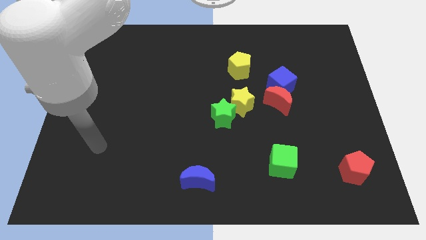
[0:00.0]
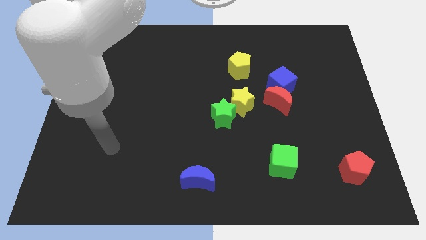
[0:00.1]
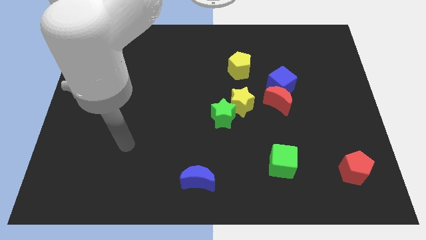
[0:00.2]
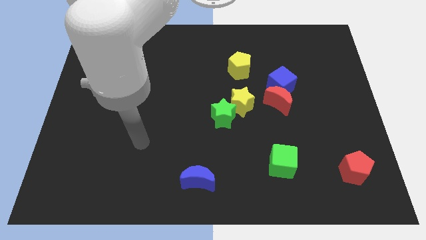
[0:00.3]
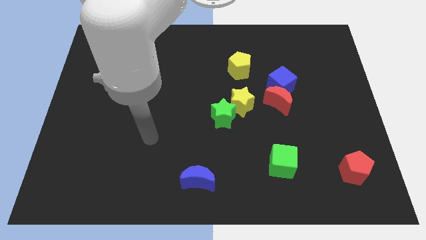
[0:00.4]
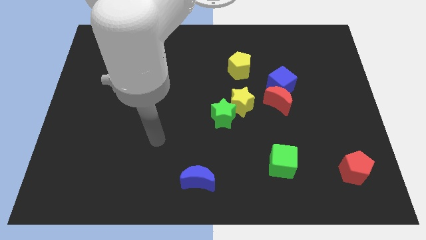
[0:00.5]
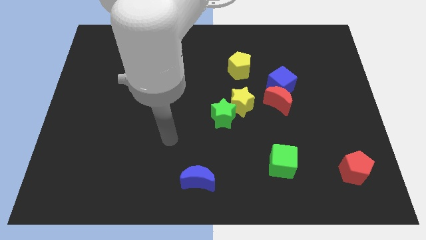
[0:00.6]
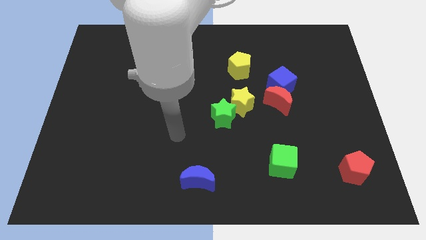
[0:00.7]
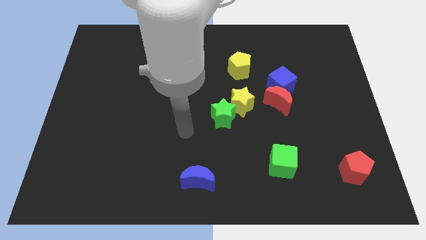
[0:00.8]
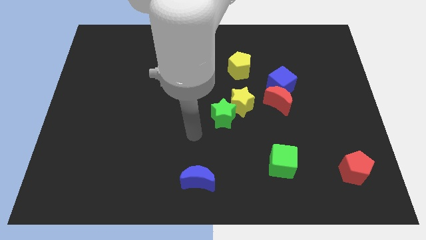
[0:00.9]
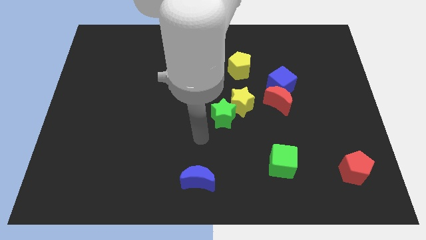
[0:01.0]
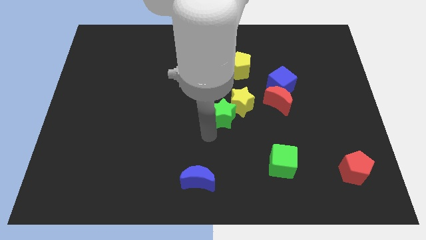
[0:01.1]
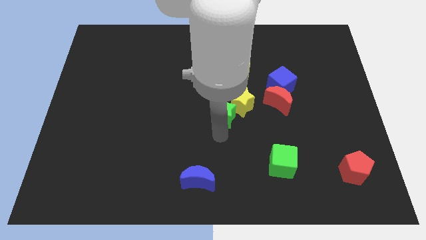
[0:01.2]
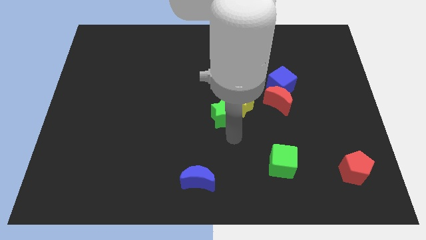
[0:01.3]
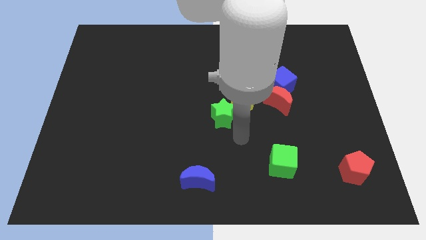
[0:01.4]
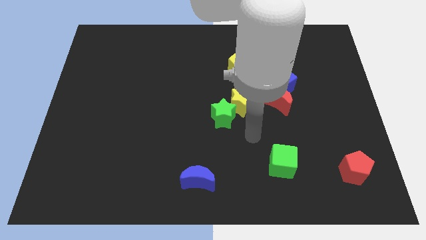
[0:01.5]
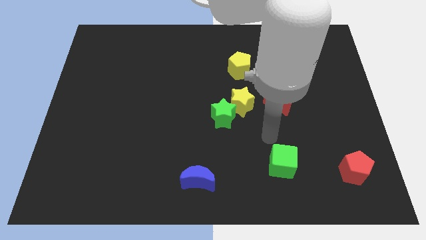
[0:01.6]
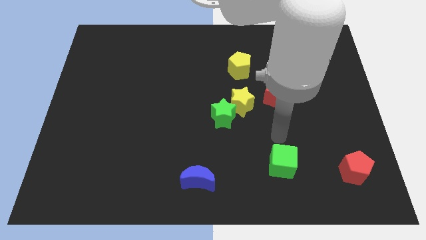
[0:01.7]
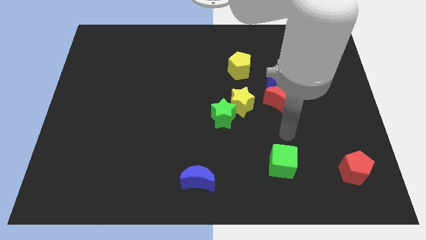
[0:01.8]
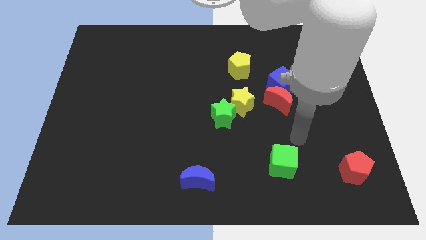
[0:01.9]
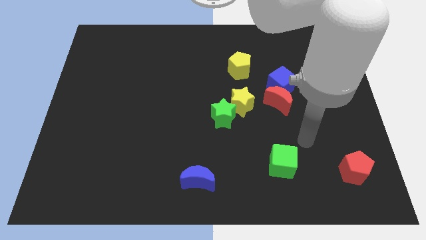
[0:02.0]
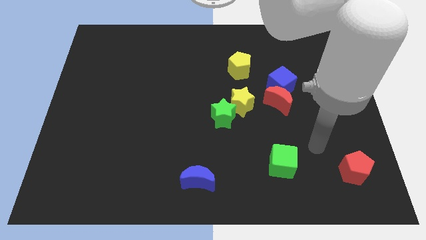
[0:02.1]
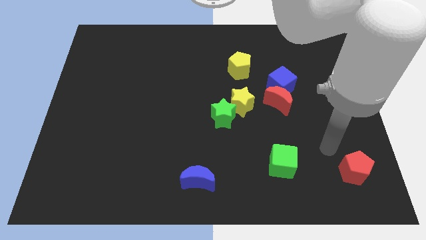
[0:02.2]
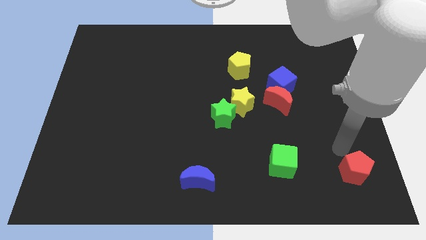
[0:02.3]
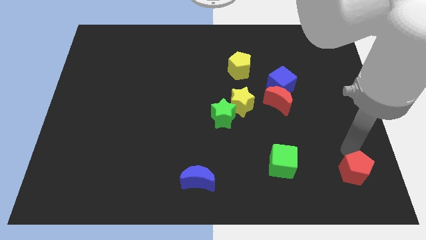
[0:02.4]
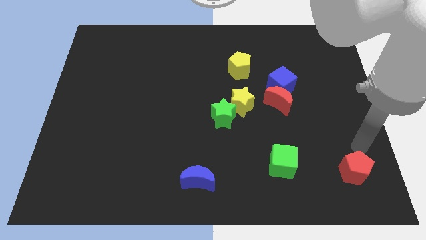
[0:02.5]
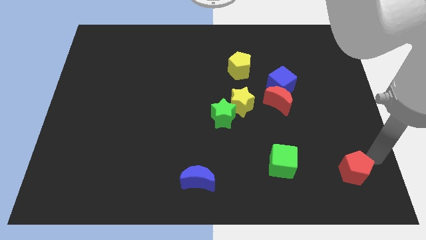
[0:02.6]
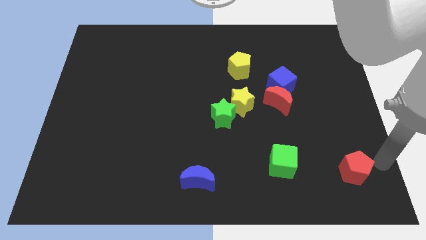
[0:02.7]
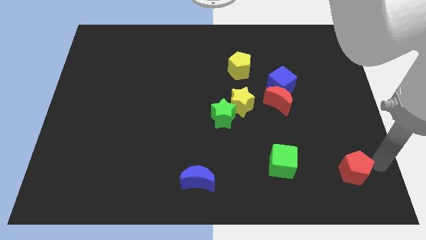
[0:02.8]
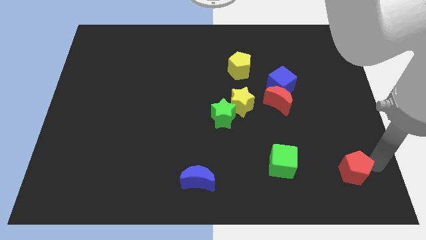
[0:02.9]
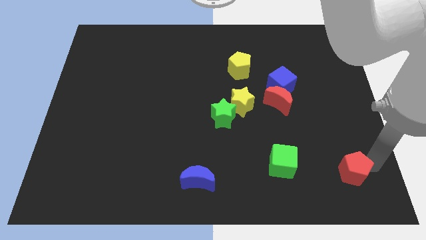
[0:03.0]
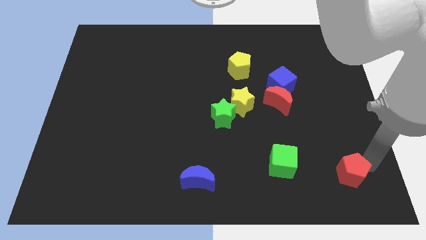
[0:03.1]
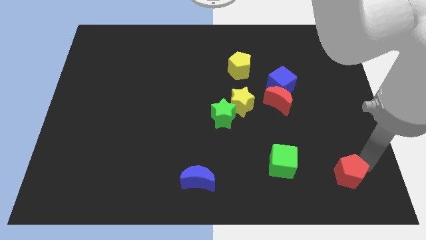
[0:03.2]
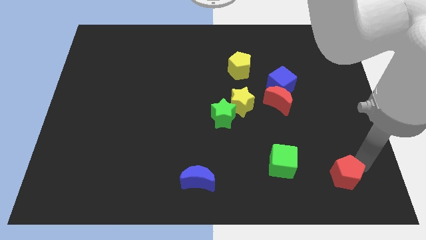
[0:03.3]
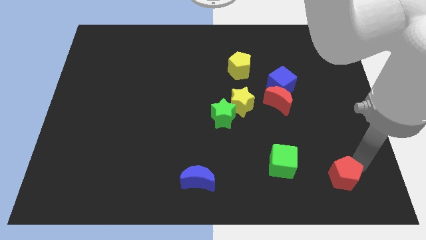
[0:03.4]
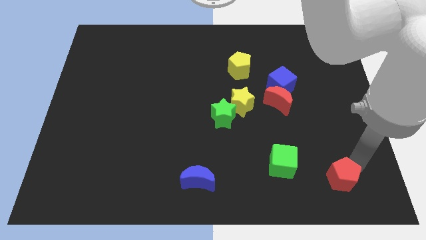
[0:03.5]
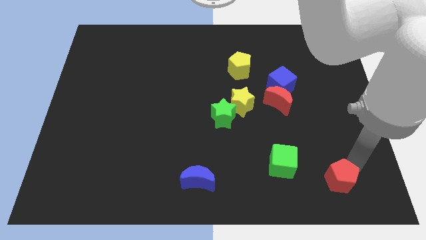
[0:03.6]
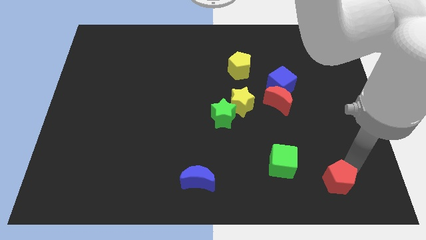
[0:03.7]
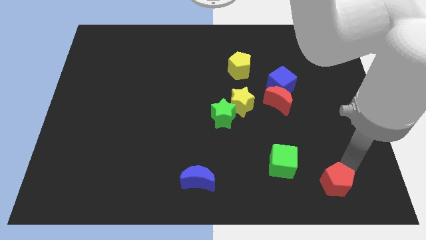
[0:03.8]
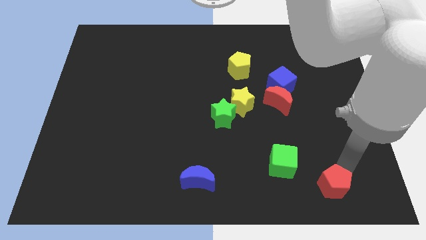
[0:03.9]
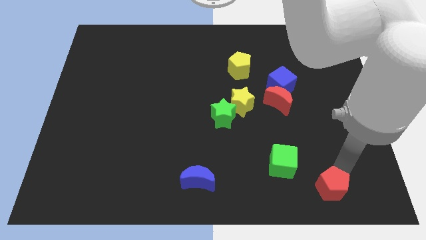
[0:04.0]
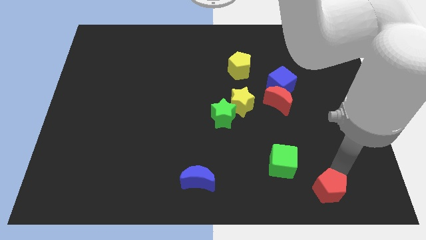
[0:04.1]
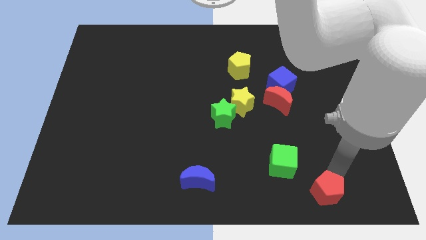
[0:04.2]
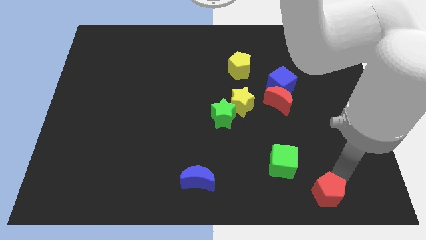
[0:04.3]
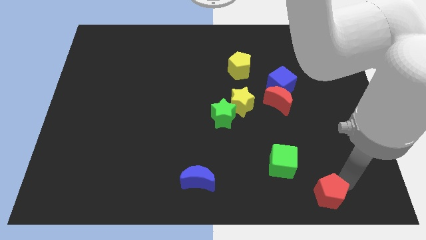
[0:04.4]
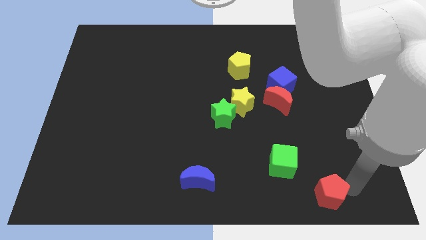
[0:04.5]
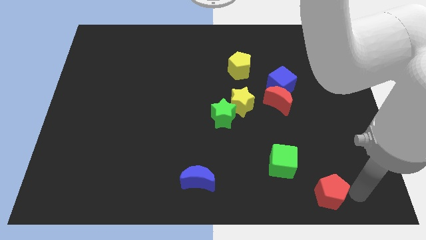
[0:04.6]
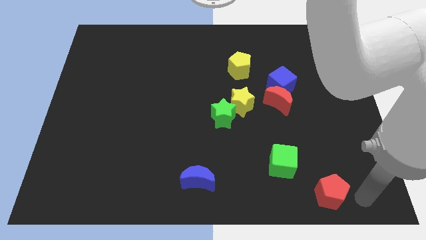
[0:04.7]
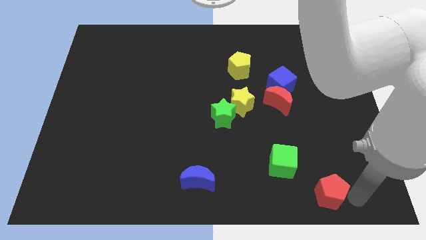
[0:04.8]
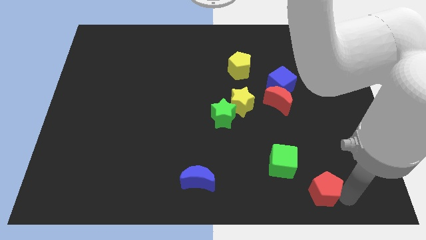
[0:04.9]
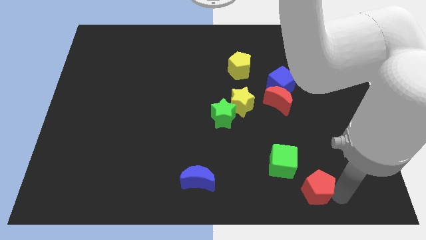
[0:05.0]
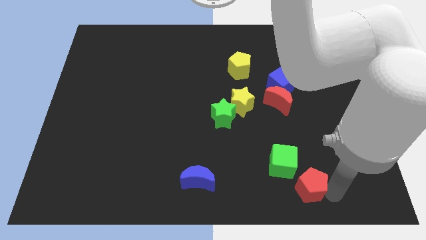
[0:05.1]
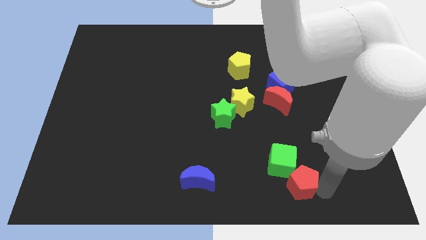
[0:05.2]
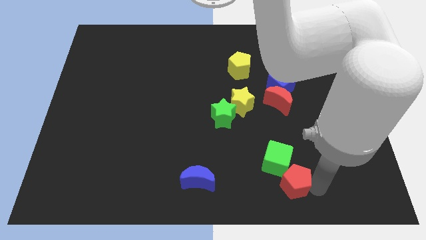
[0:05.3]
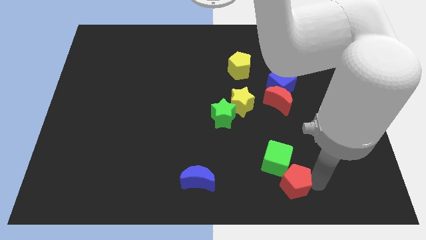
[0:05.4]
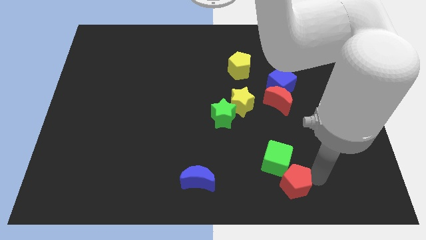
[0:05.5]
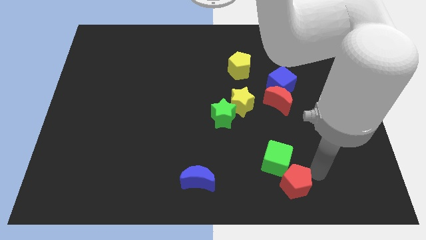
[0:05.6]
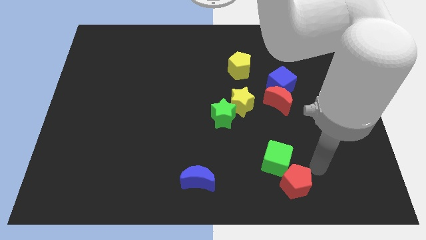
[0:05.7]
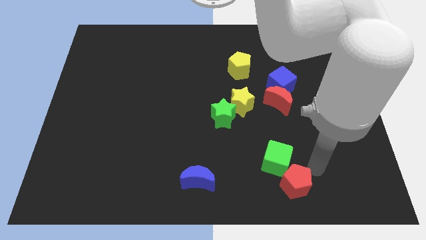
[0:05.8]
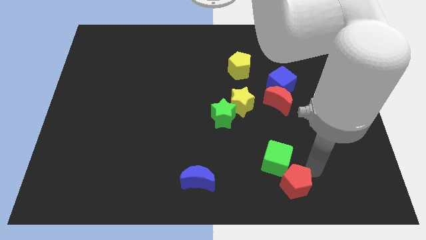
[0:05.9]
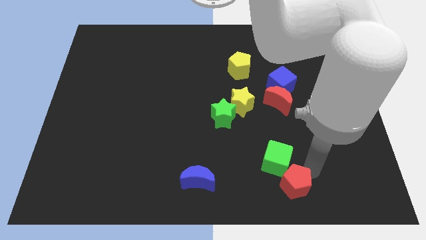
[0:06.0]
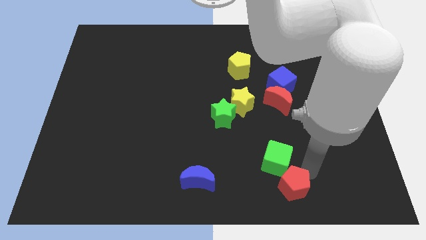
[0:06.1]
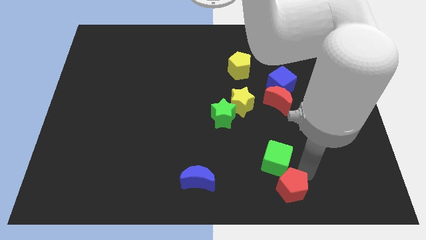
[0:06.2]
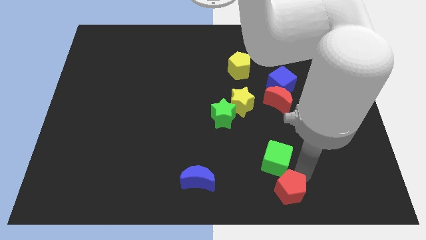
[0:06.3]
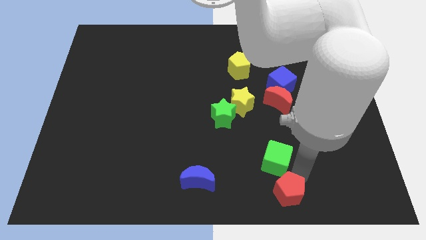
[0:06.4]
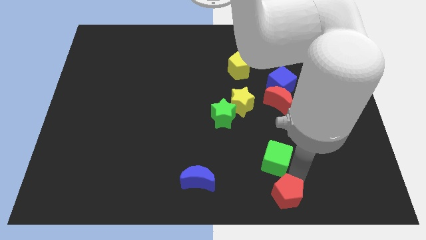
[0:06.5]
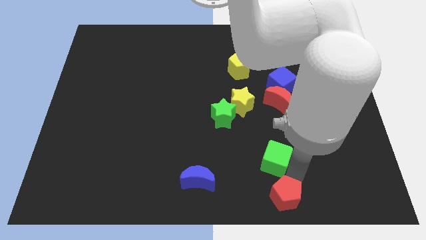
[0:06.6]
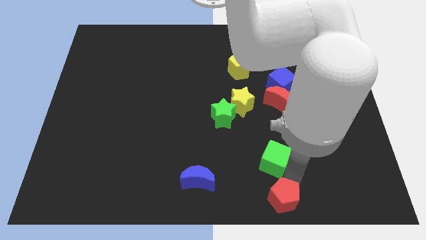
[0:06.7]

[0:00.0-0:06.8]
put the red pentagon to the bottom side

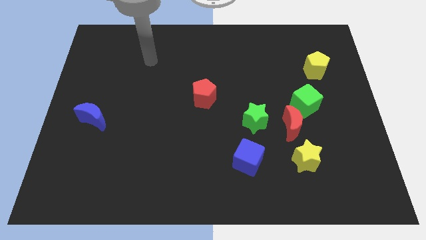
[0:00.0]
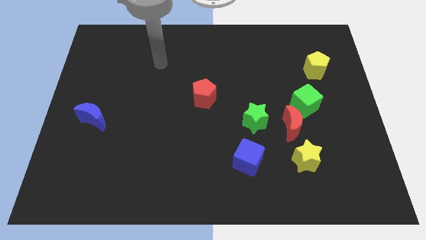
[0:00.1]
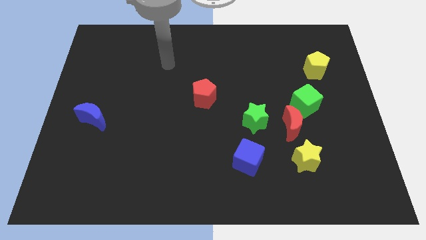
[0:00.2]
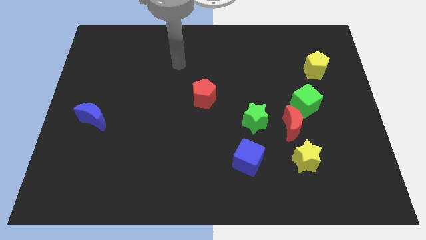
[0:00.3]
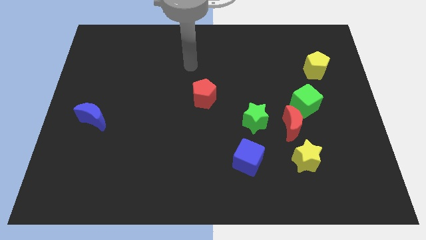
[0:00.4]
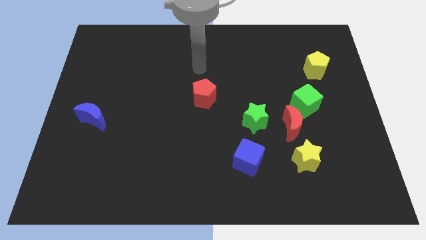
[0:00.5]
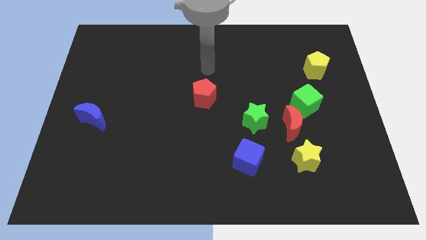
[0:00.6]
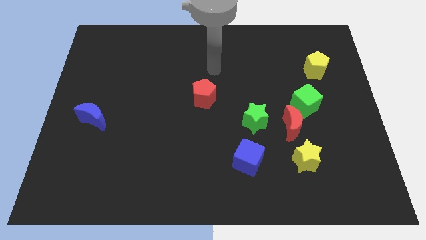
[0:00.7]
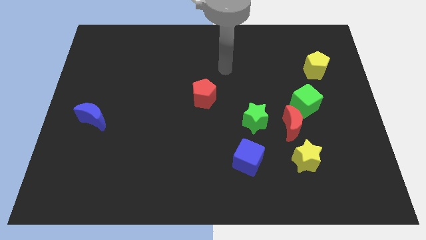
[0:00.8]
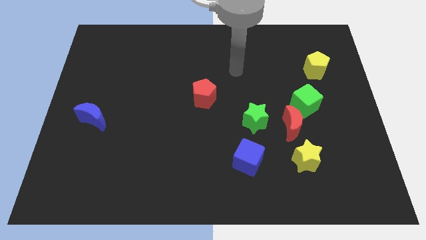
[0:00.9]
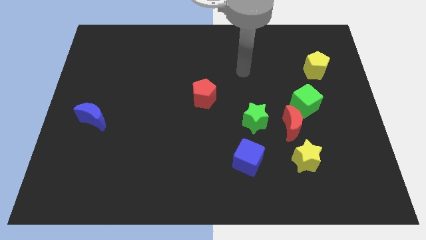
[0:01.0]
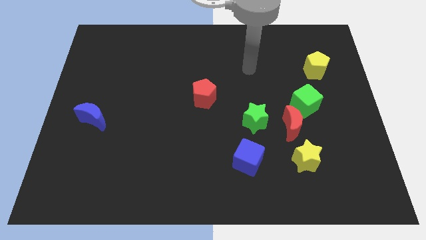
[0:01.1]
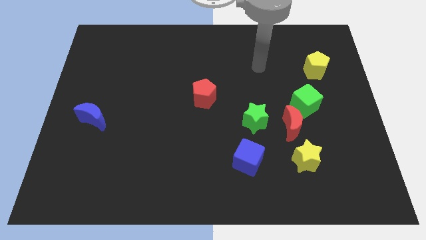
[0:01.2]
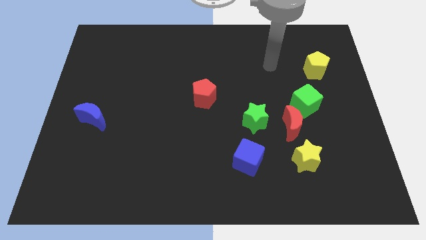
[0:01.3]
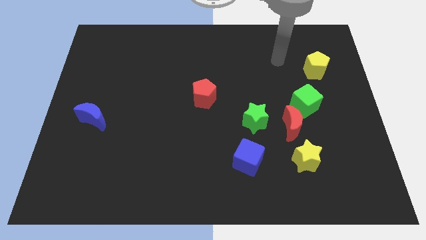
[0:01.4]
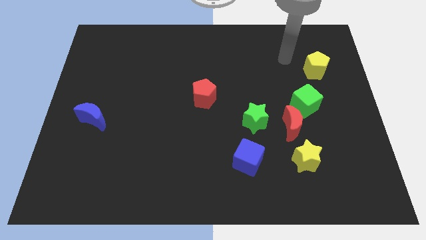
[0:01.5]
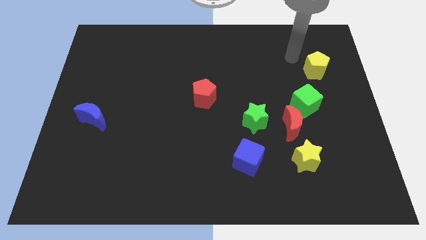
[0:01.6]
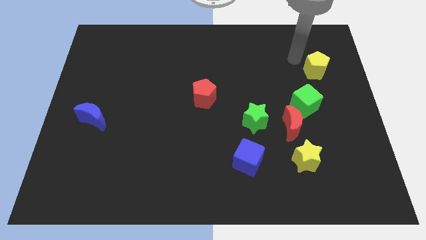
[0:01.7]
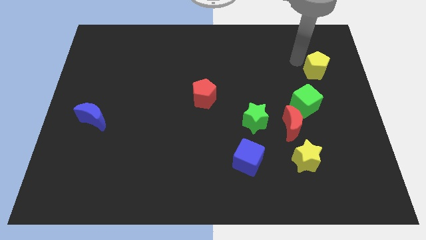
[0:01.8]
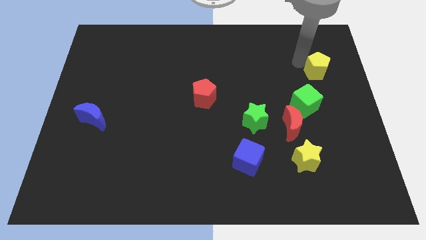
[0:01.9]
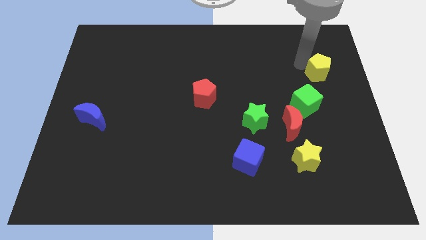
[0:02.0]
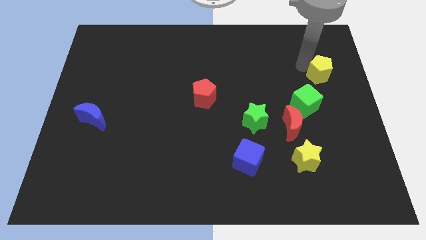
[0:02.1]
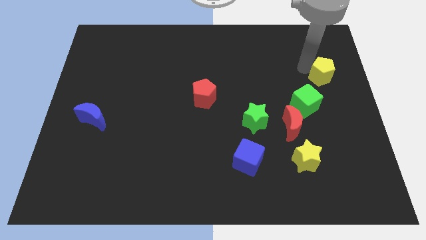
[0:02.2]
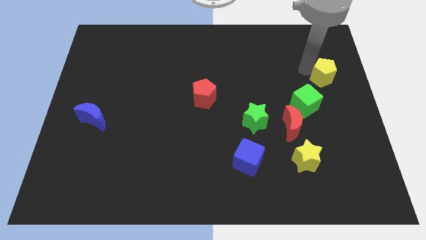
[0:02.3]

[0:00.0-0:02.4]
put the yellow pentagon to the center right
